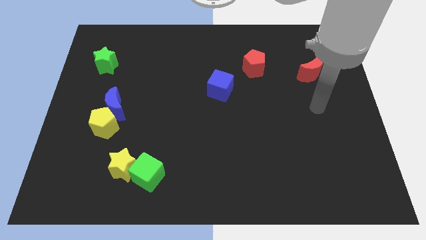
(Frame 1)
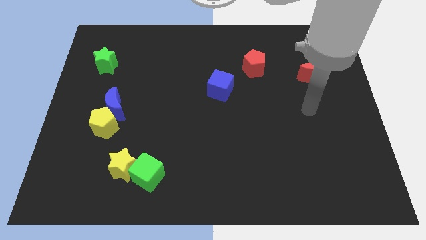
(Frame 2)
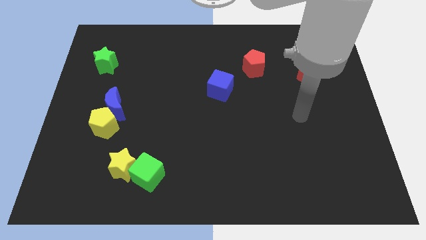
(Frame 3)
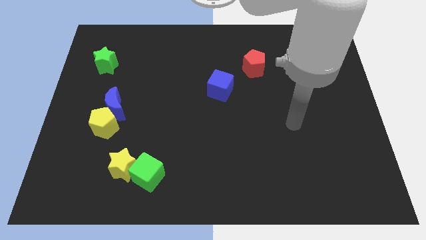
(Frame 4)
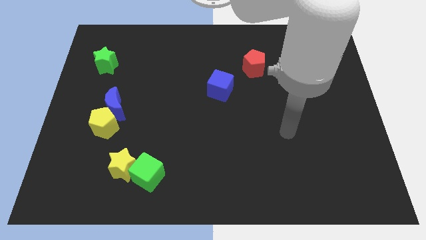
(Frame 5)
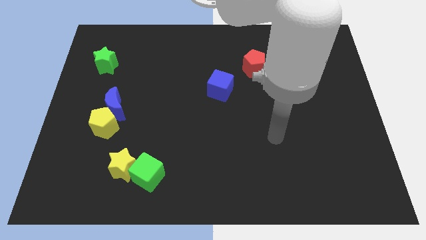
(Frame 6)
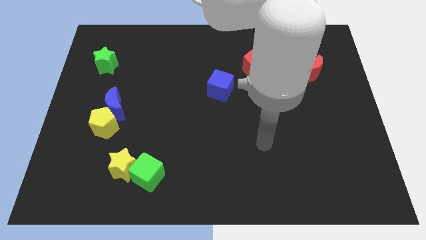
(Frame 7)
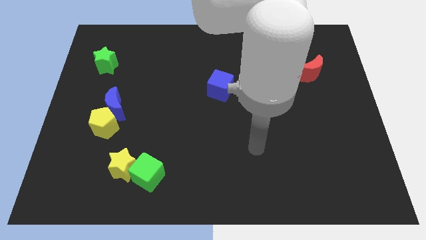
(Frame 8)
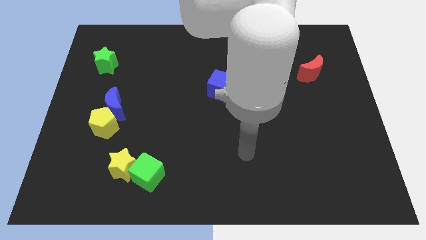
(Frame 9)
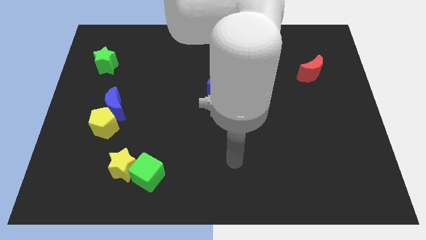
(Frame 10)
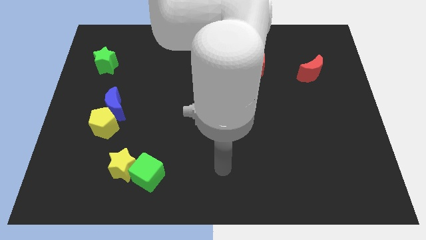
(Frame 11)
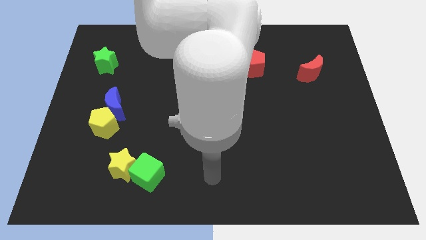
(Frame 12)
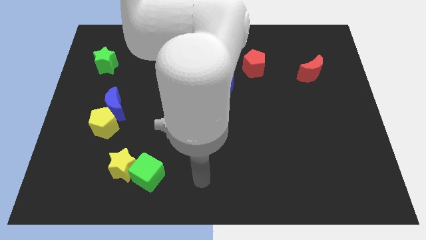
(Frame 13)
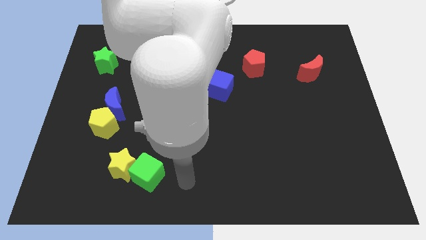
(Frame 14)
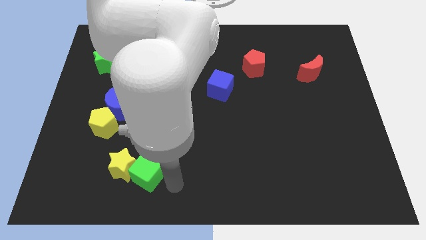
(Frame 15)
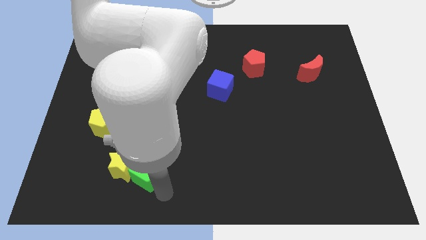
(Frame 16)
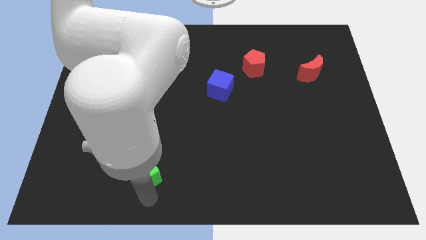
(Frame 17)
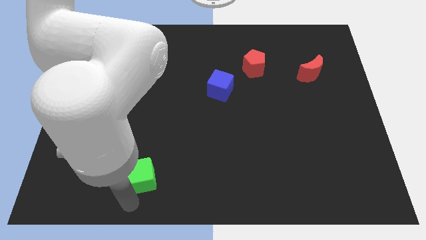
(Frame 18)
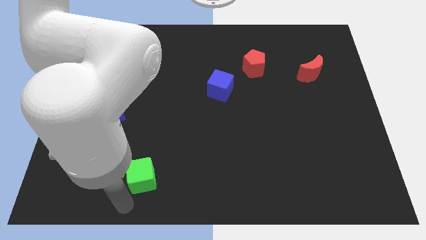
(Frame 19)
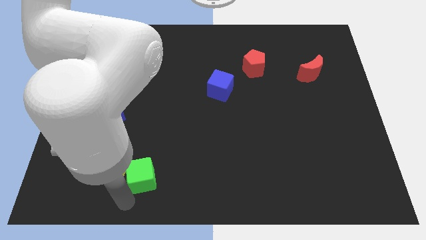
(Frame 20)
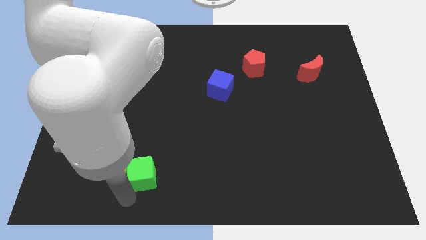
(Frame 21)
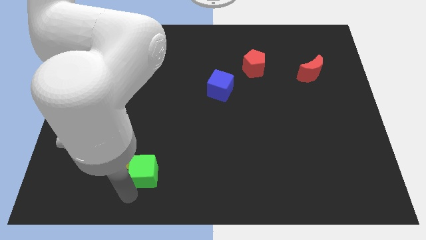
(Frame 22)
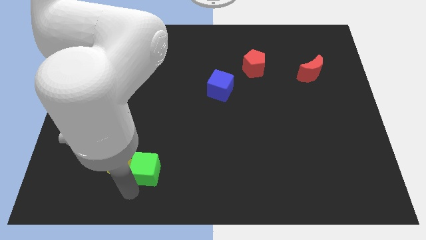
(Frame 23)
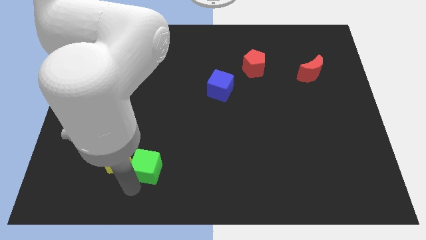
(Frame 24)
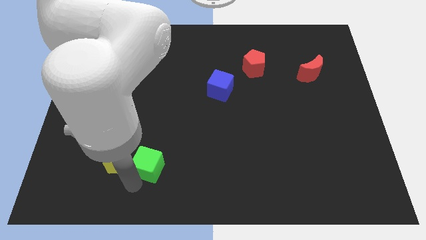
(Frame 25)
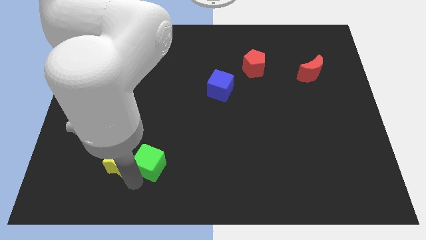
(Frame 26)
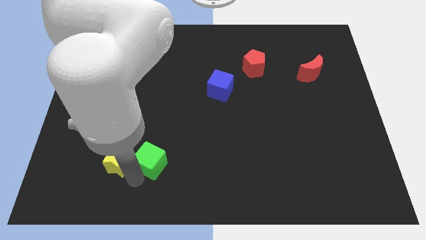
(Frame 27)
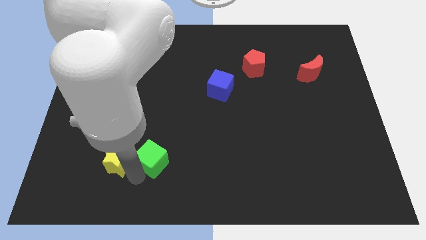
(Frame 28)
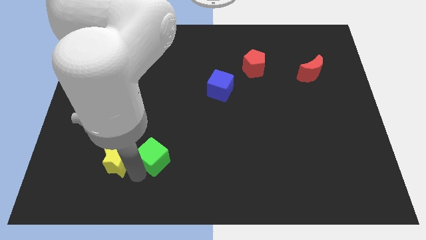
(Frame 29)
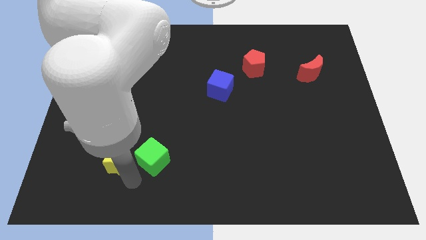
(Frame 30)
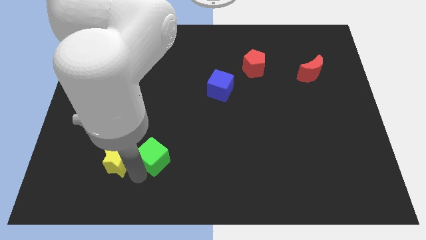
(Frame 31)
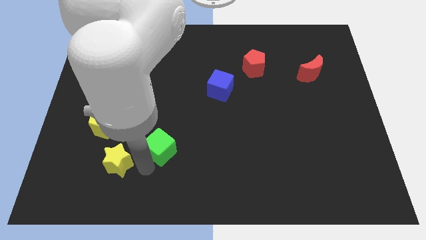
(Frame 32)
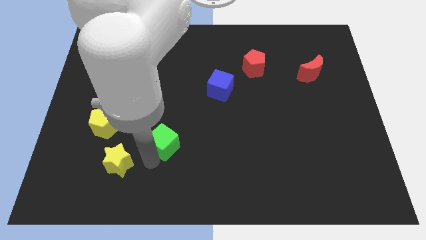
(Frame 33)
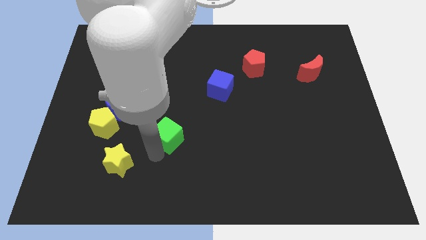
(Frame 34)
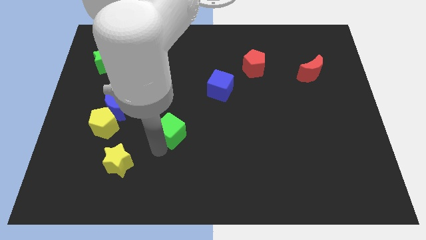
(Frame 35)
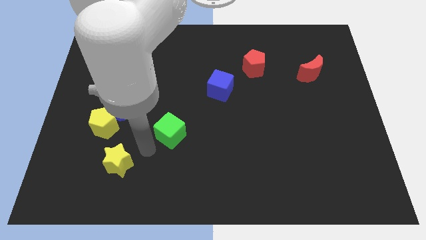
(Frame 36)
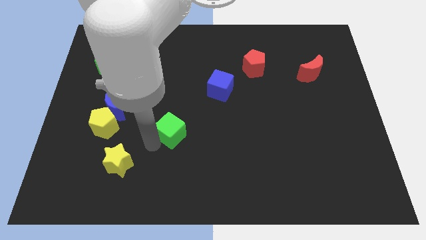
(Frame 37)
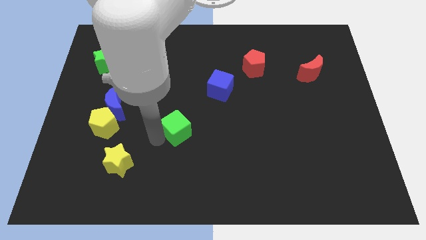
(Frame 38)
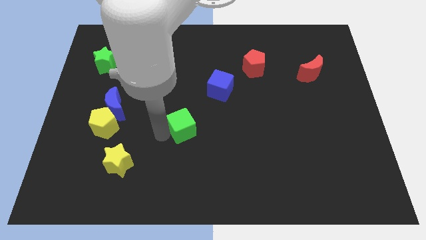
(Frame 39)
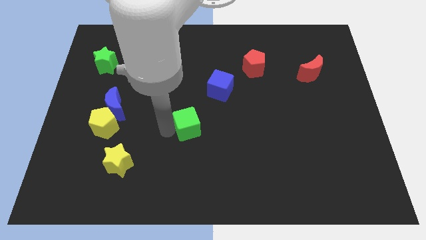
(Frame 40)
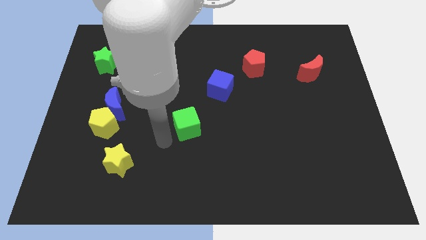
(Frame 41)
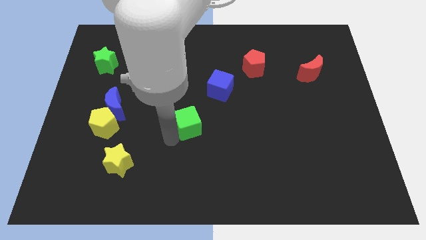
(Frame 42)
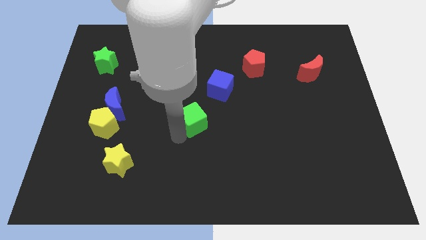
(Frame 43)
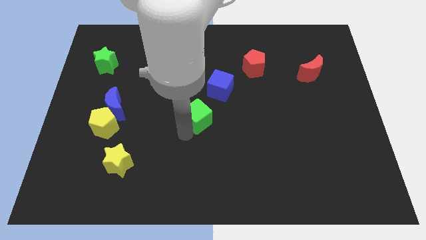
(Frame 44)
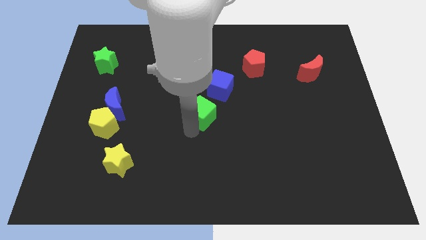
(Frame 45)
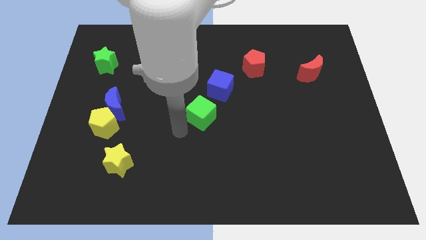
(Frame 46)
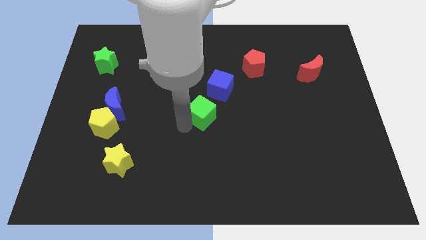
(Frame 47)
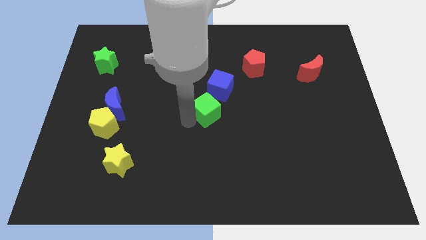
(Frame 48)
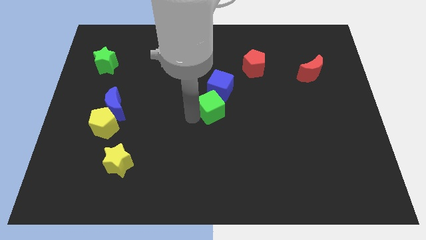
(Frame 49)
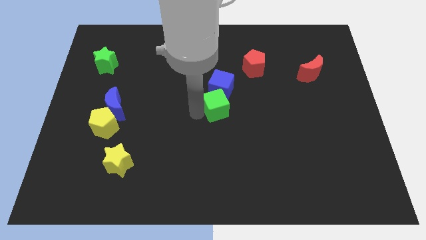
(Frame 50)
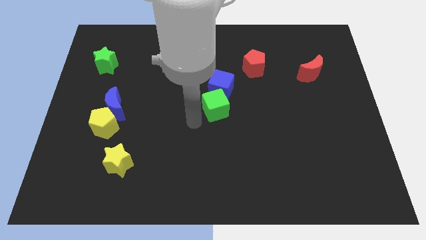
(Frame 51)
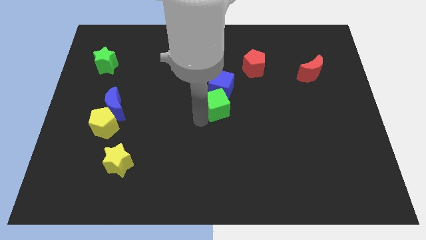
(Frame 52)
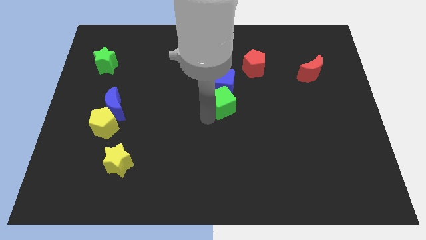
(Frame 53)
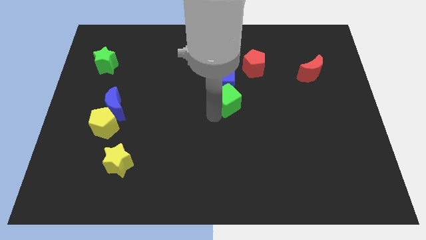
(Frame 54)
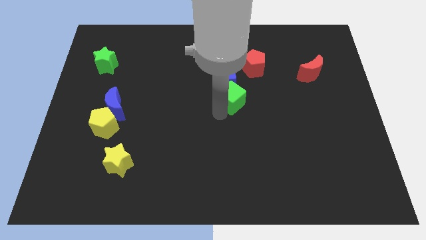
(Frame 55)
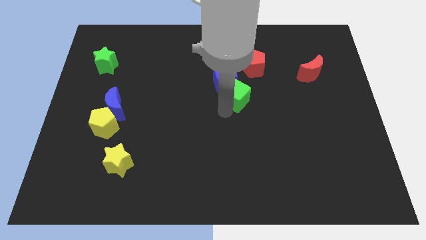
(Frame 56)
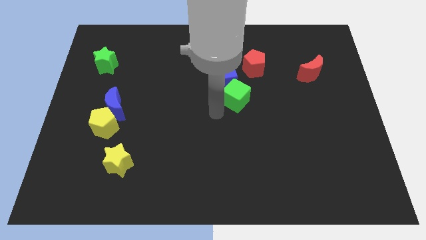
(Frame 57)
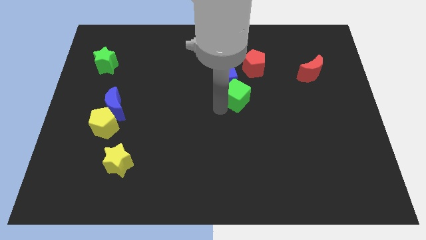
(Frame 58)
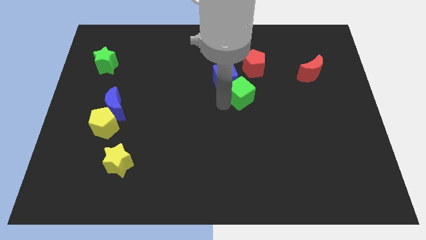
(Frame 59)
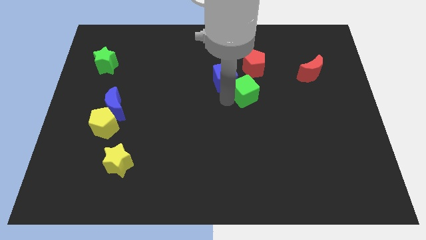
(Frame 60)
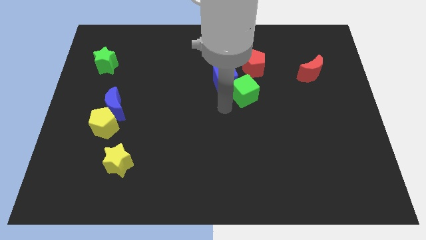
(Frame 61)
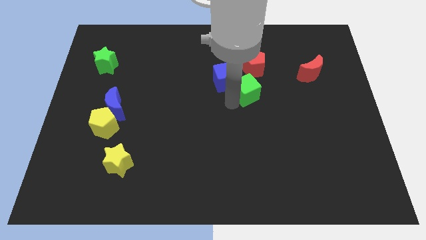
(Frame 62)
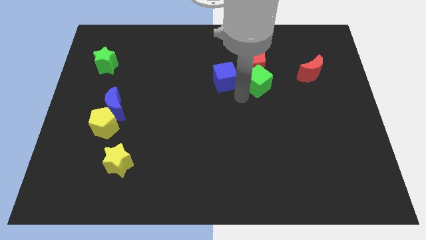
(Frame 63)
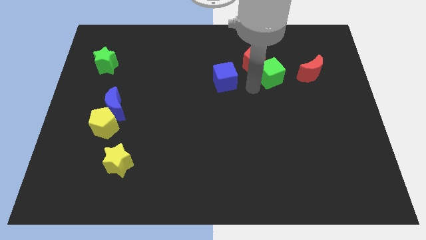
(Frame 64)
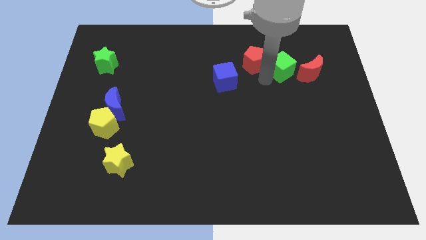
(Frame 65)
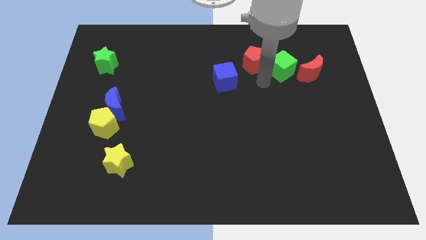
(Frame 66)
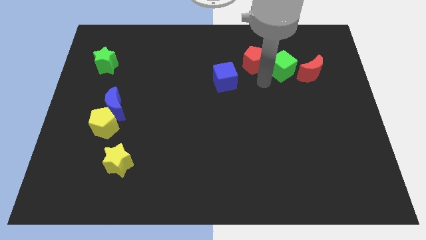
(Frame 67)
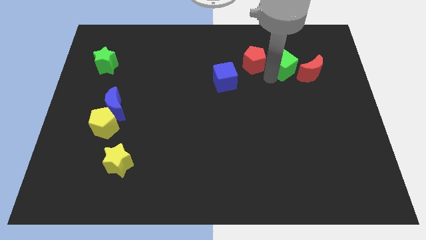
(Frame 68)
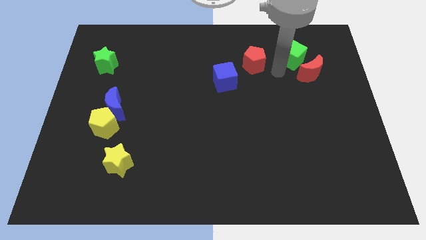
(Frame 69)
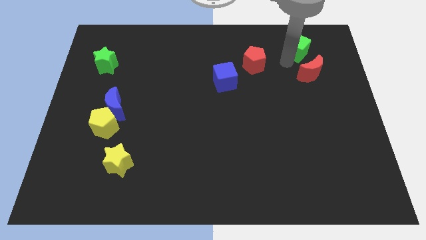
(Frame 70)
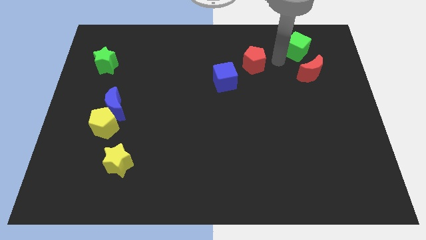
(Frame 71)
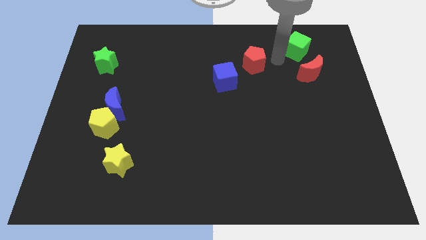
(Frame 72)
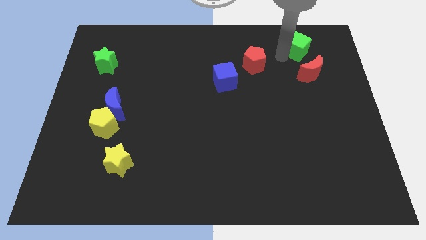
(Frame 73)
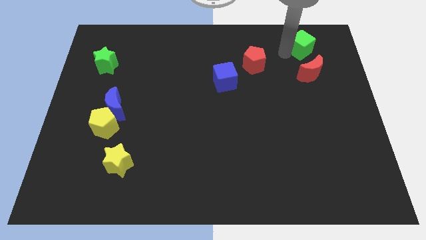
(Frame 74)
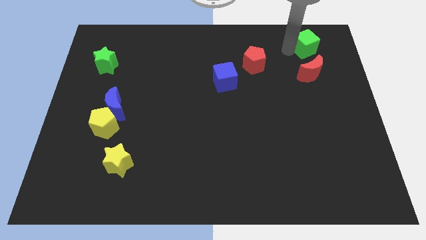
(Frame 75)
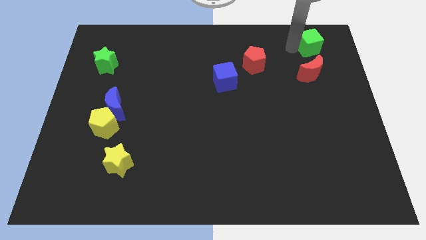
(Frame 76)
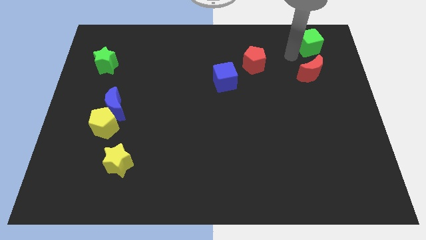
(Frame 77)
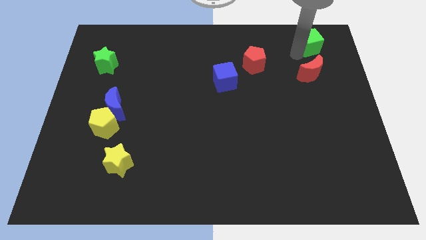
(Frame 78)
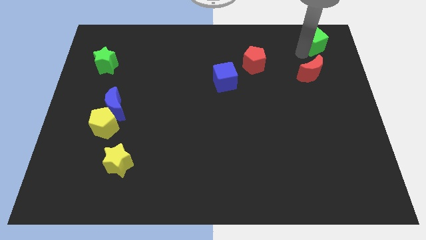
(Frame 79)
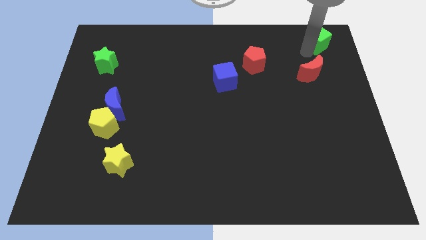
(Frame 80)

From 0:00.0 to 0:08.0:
push the green cube to the top right of the board
